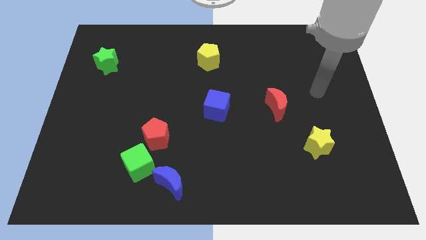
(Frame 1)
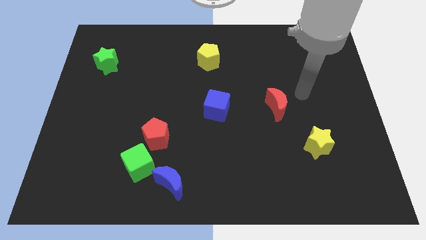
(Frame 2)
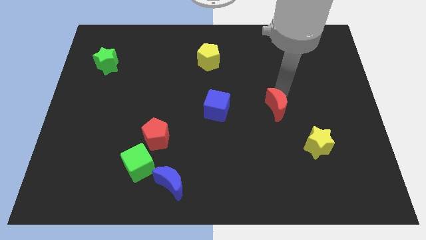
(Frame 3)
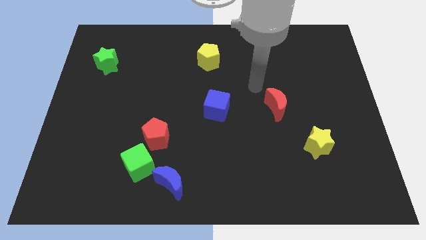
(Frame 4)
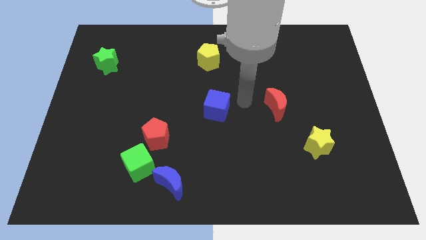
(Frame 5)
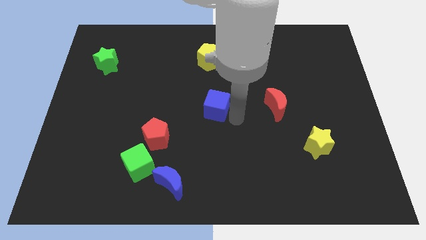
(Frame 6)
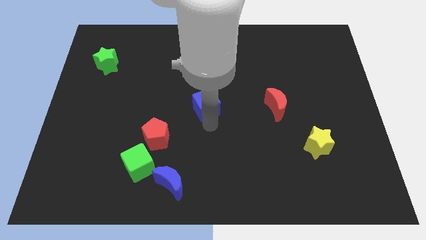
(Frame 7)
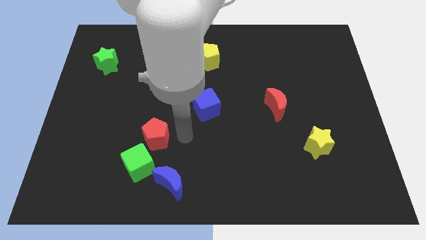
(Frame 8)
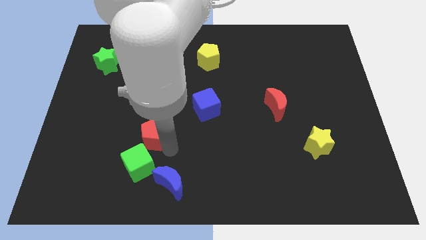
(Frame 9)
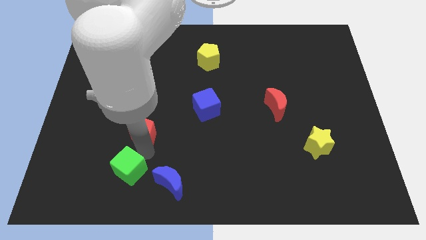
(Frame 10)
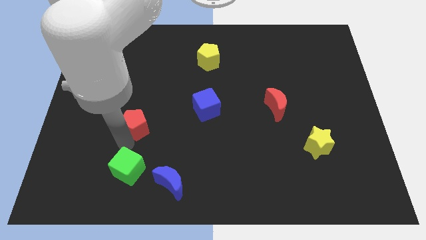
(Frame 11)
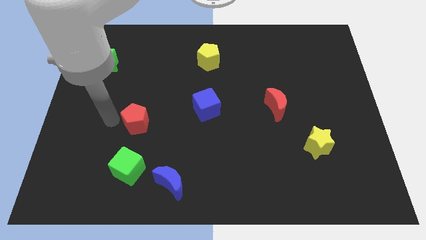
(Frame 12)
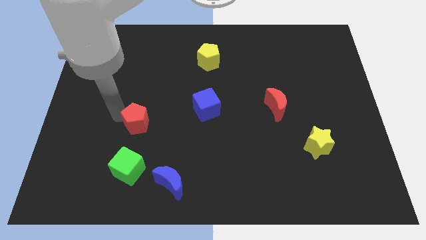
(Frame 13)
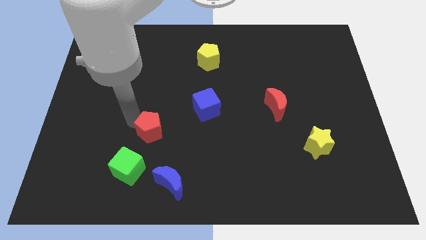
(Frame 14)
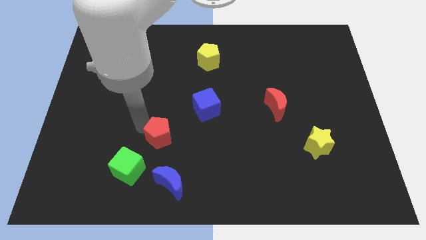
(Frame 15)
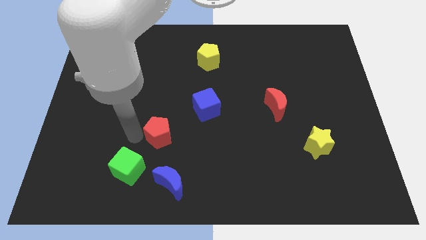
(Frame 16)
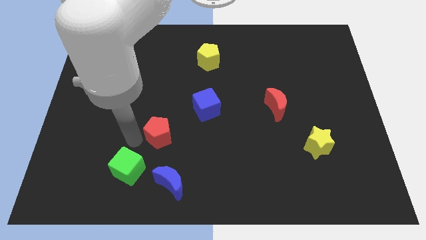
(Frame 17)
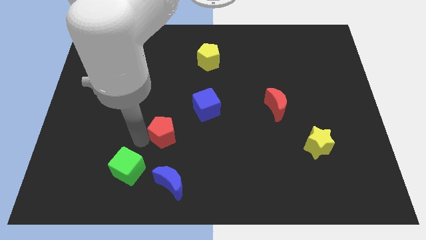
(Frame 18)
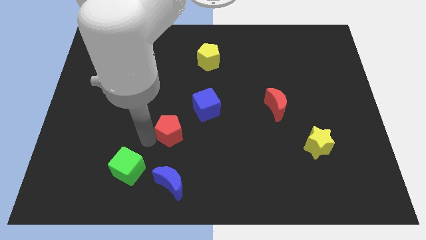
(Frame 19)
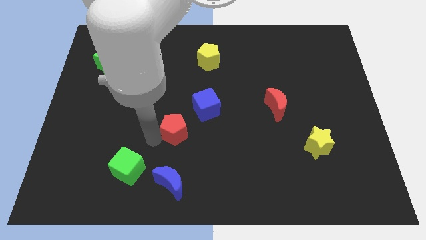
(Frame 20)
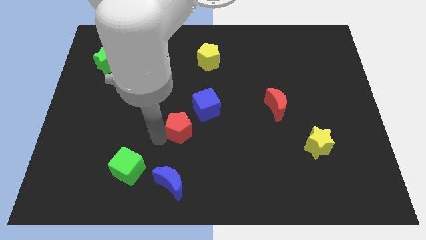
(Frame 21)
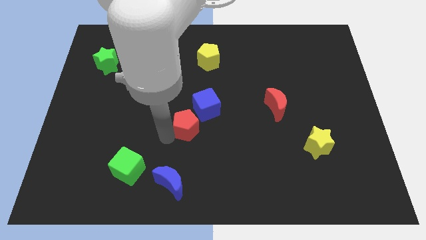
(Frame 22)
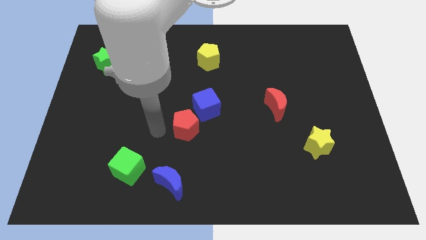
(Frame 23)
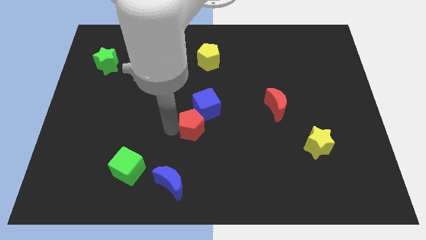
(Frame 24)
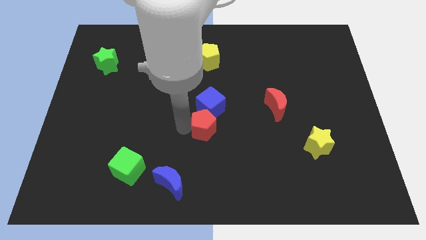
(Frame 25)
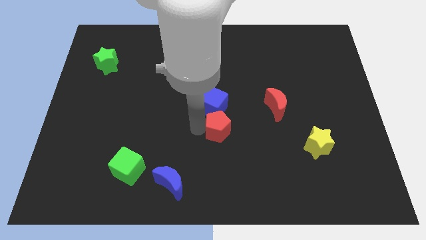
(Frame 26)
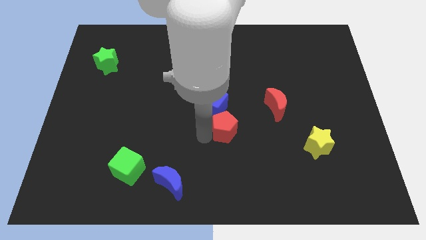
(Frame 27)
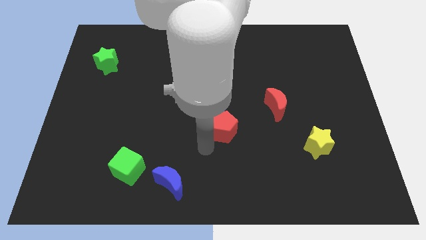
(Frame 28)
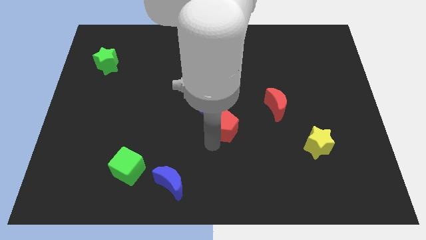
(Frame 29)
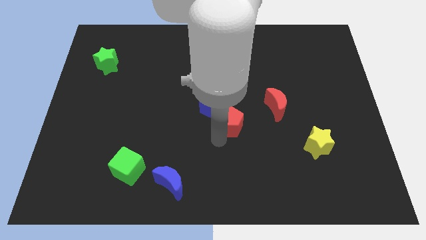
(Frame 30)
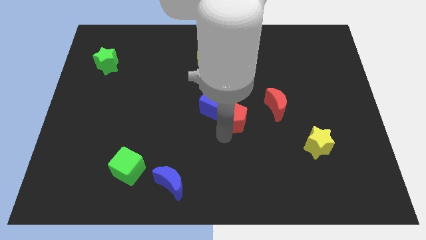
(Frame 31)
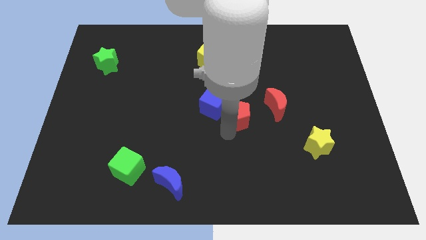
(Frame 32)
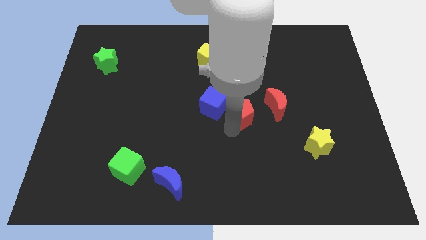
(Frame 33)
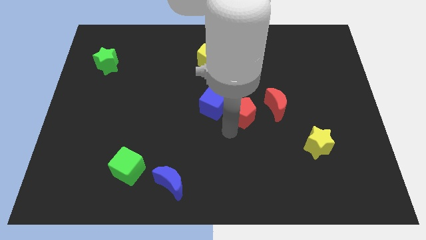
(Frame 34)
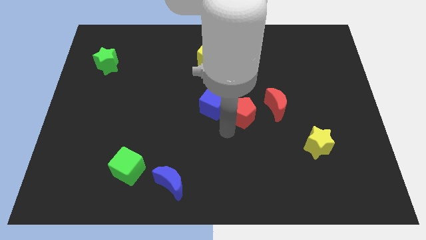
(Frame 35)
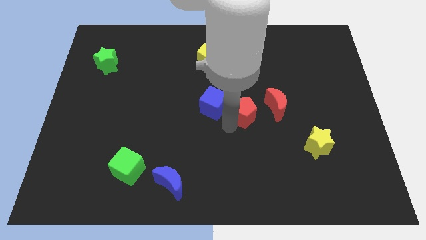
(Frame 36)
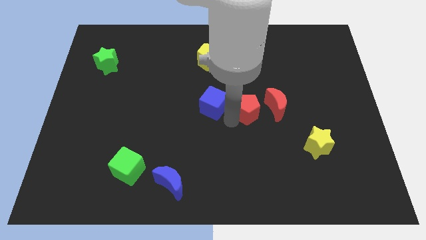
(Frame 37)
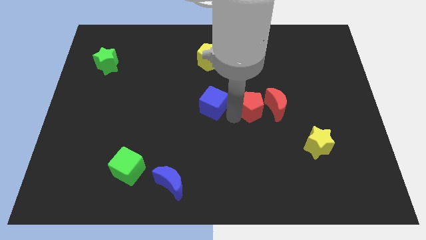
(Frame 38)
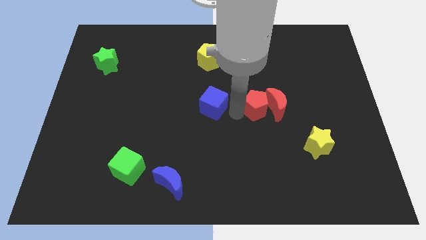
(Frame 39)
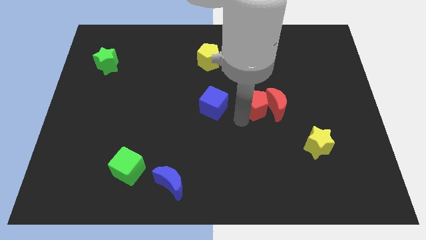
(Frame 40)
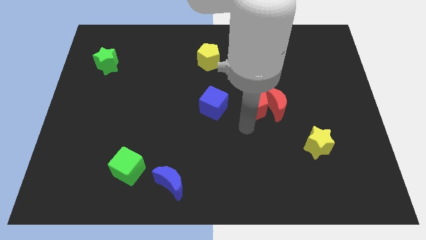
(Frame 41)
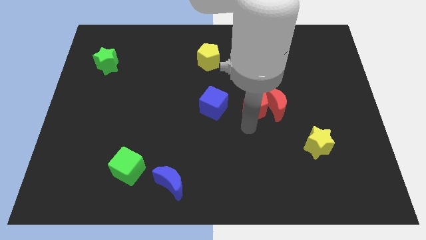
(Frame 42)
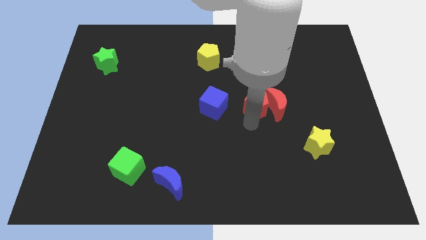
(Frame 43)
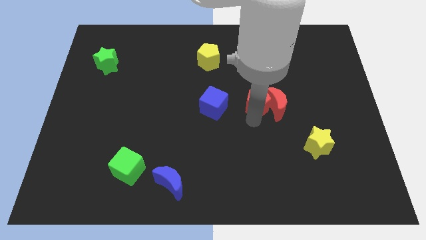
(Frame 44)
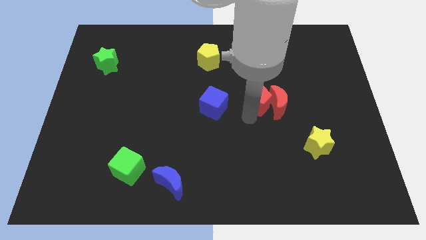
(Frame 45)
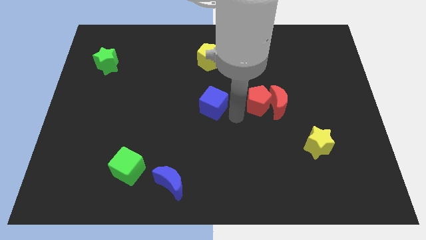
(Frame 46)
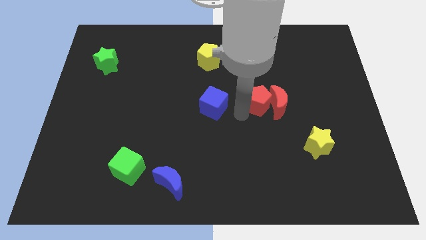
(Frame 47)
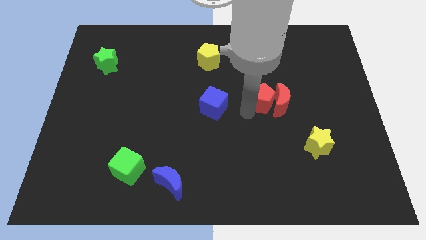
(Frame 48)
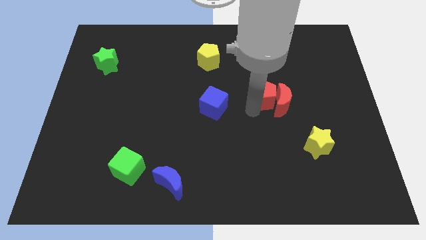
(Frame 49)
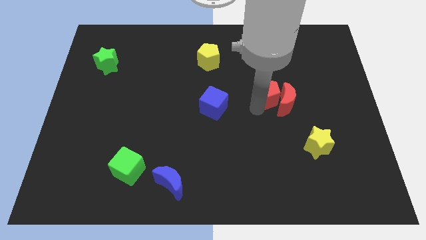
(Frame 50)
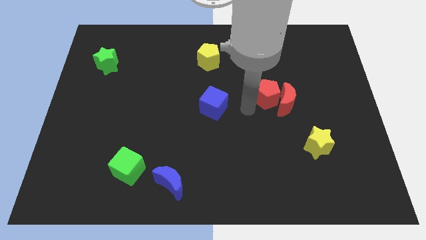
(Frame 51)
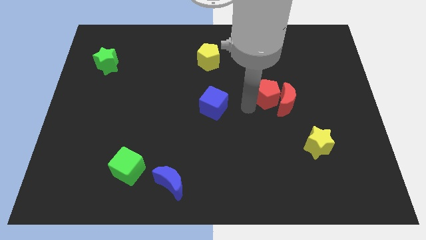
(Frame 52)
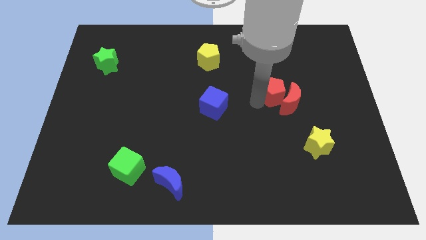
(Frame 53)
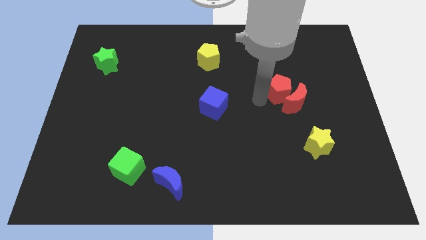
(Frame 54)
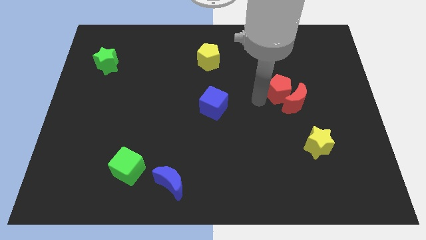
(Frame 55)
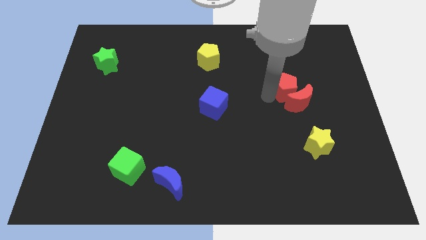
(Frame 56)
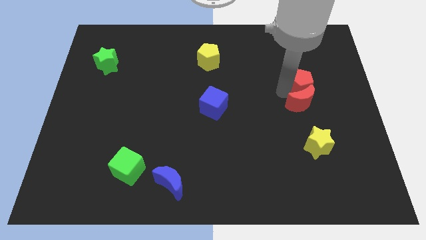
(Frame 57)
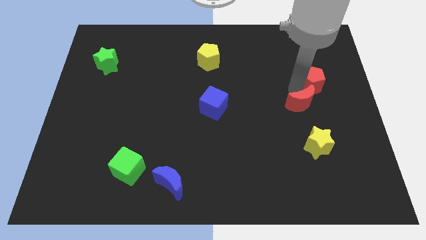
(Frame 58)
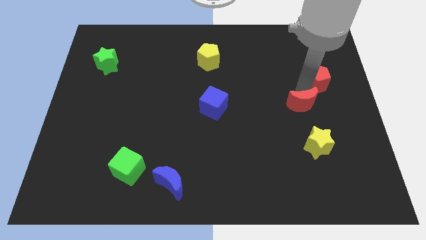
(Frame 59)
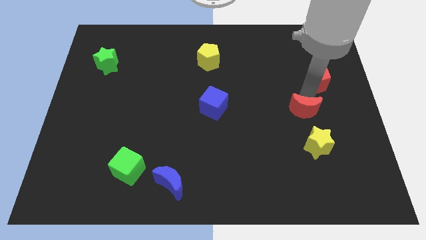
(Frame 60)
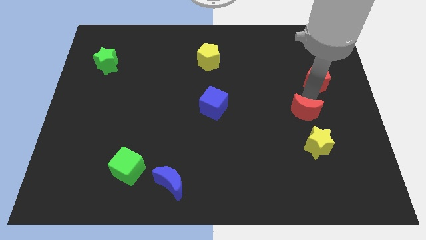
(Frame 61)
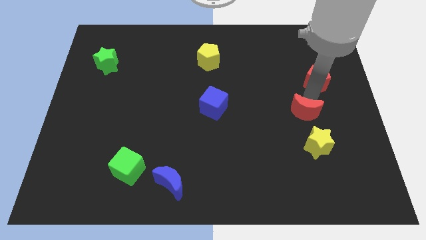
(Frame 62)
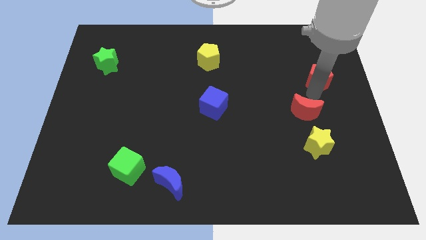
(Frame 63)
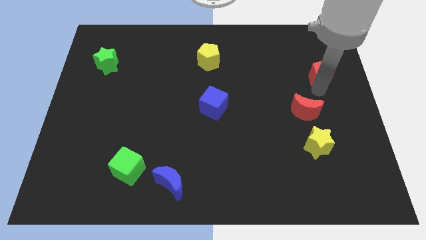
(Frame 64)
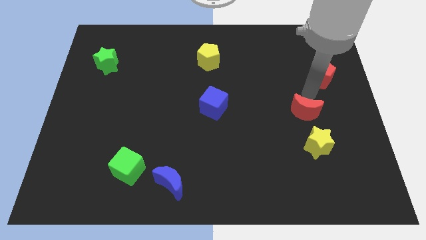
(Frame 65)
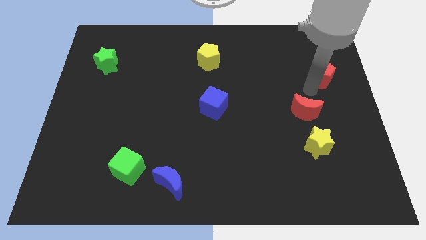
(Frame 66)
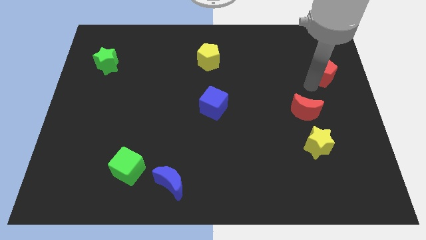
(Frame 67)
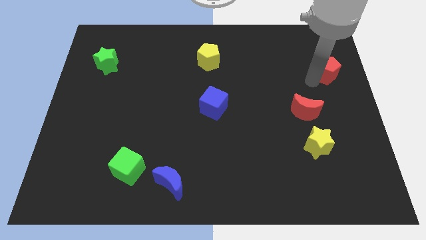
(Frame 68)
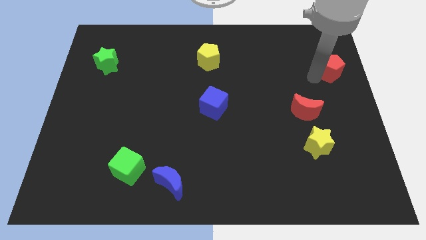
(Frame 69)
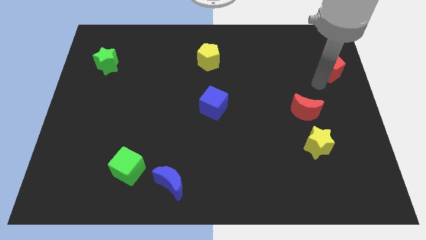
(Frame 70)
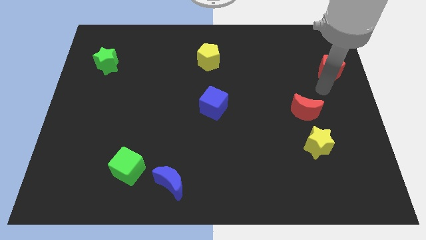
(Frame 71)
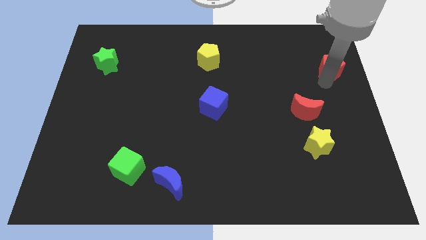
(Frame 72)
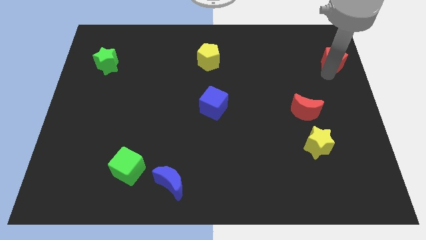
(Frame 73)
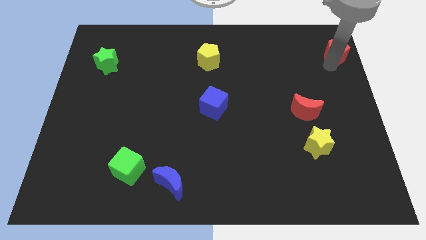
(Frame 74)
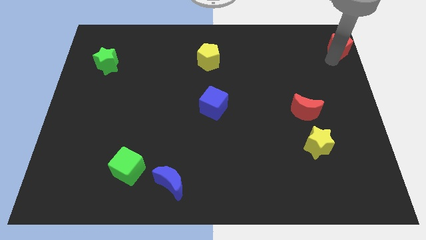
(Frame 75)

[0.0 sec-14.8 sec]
move the red pentagon to the upper right corner
